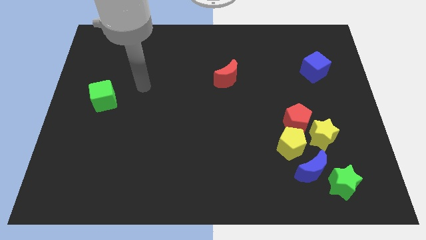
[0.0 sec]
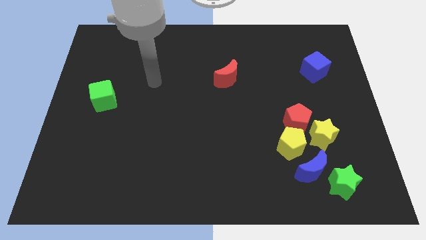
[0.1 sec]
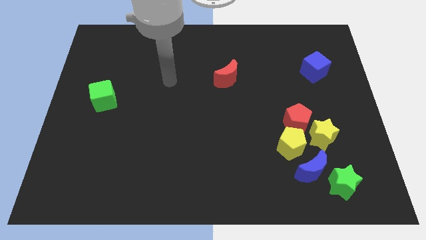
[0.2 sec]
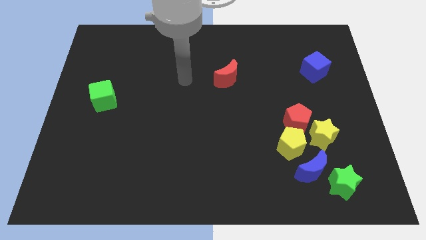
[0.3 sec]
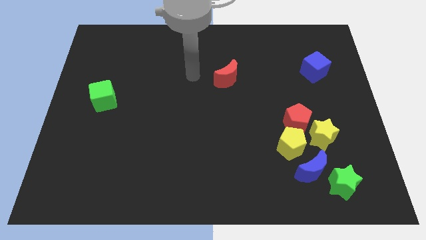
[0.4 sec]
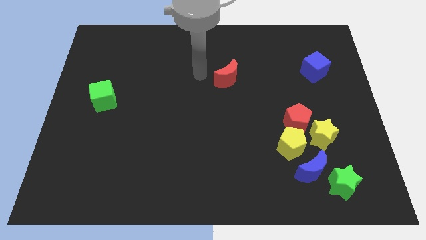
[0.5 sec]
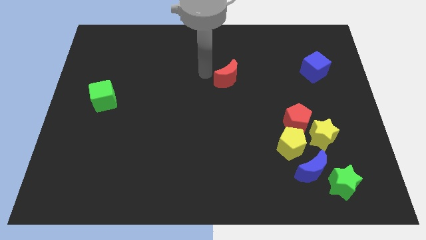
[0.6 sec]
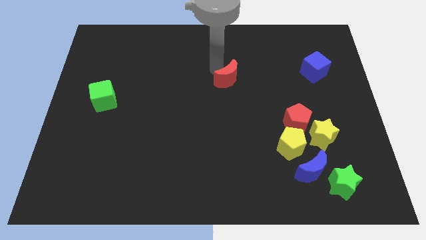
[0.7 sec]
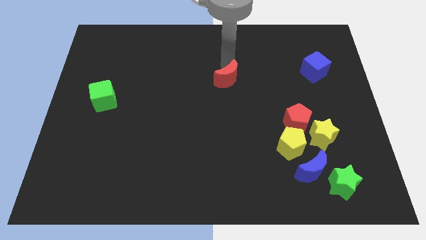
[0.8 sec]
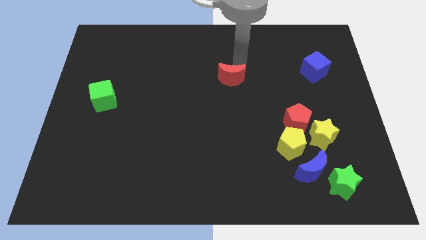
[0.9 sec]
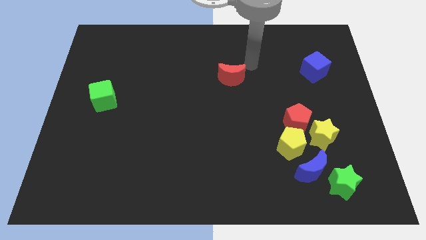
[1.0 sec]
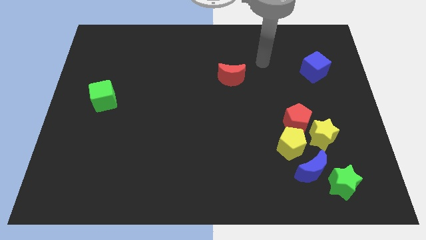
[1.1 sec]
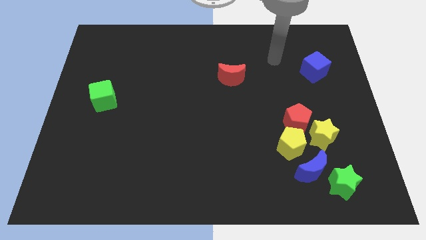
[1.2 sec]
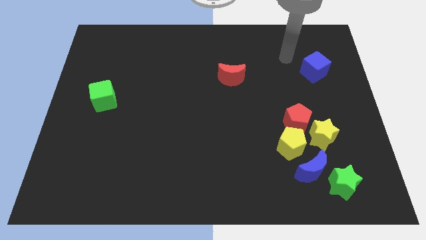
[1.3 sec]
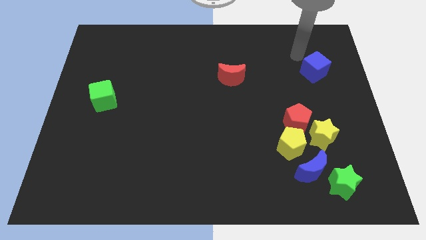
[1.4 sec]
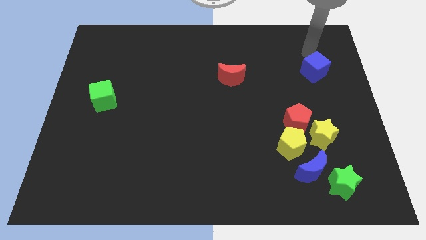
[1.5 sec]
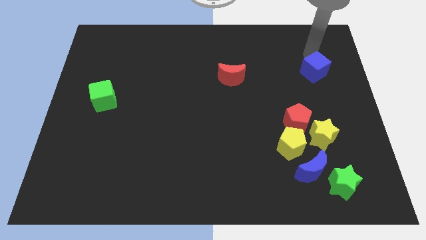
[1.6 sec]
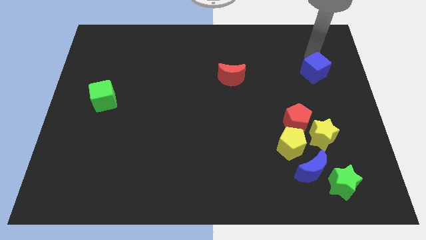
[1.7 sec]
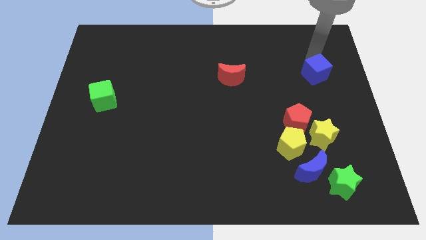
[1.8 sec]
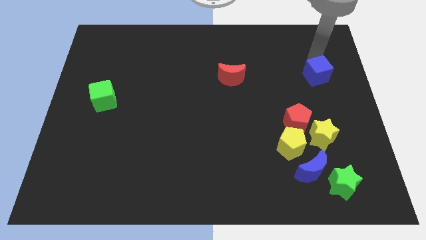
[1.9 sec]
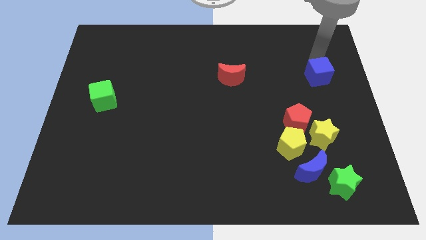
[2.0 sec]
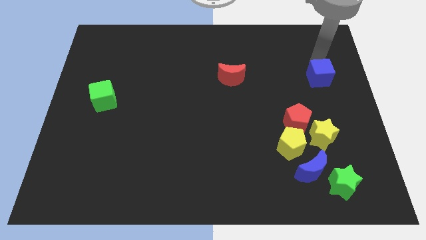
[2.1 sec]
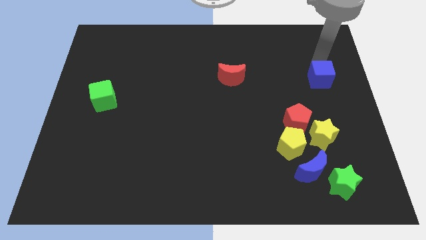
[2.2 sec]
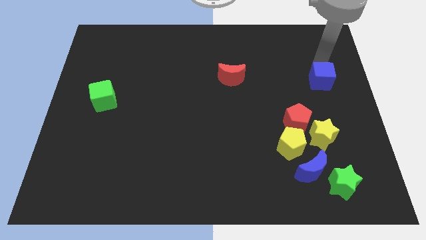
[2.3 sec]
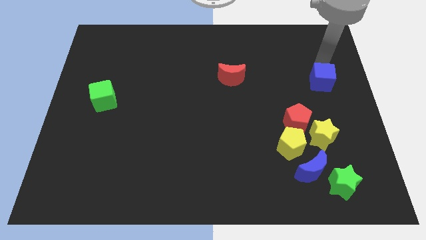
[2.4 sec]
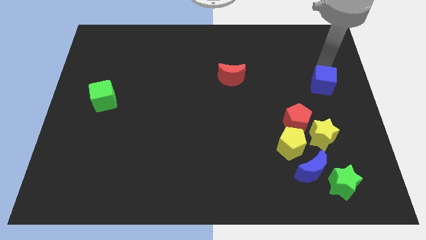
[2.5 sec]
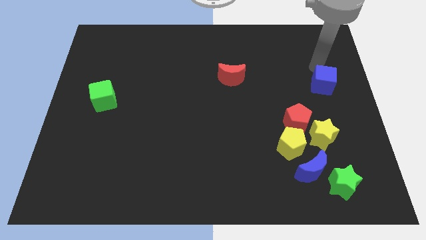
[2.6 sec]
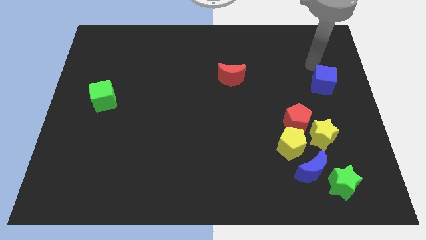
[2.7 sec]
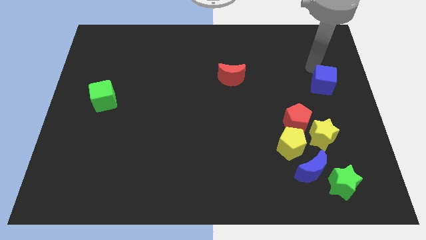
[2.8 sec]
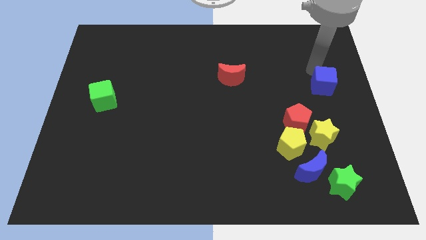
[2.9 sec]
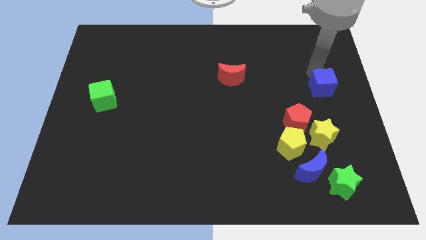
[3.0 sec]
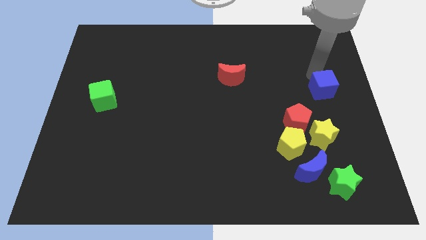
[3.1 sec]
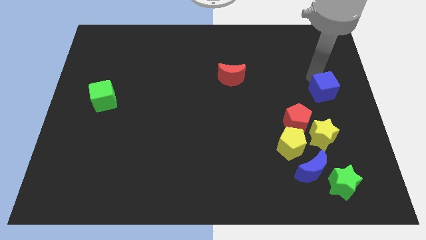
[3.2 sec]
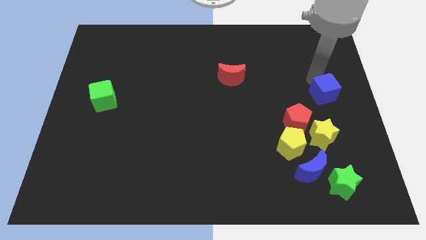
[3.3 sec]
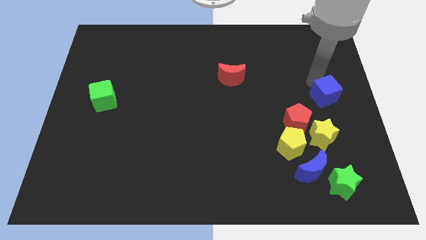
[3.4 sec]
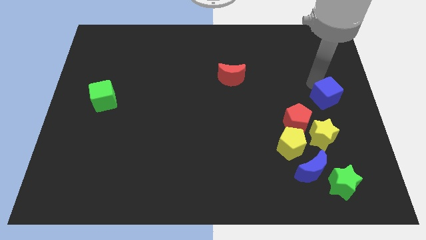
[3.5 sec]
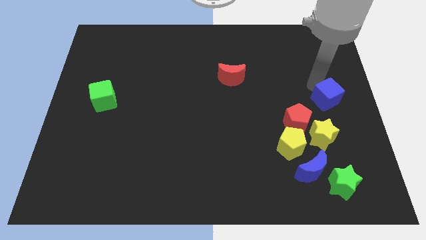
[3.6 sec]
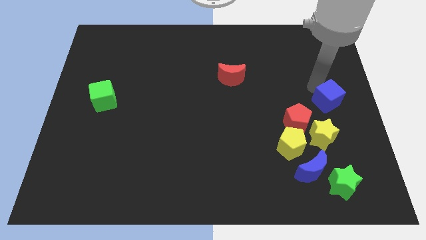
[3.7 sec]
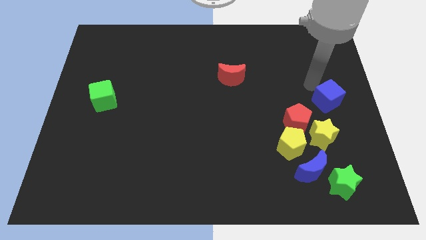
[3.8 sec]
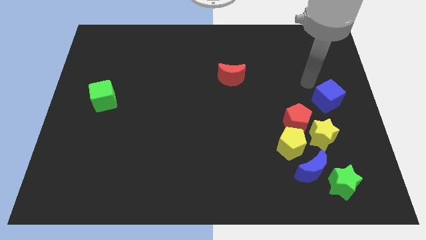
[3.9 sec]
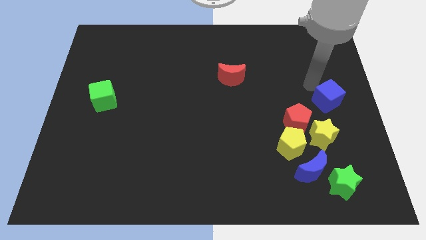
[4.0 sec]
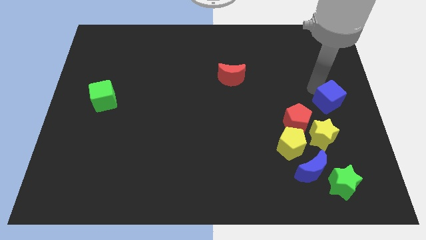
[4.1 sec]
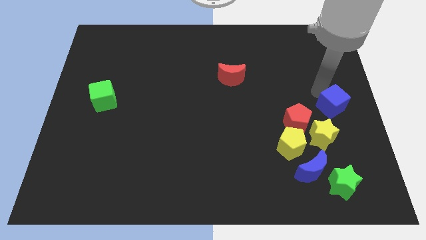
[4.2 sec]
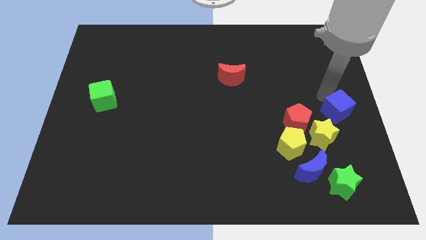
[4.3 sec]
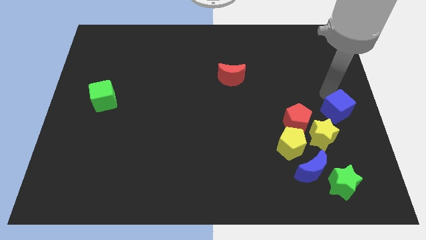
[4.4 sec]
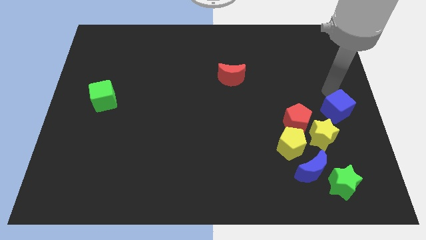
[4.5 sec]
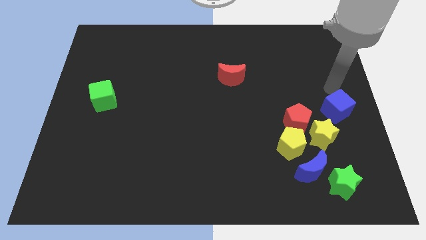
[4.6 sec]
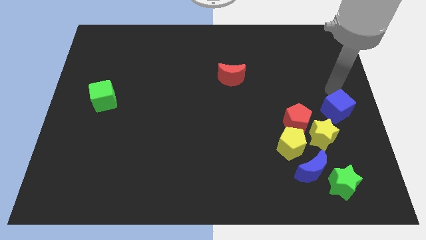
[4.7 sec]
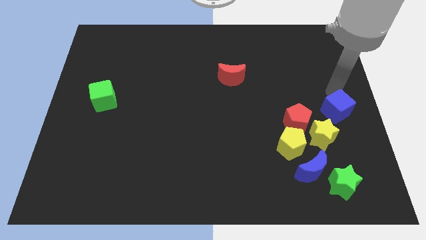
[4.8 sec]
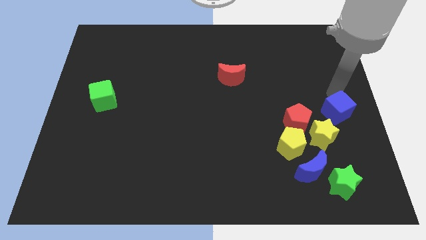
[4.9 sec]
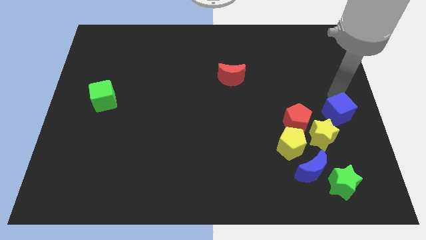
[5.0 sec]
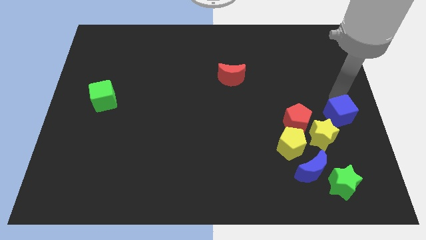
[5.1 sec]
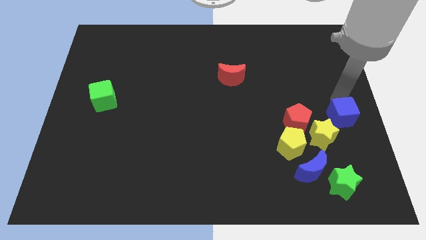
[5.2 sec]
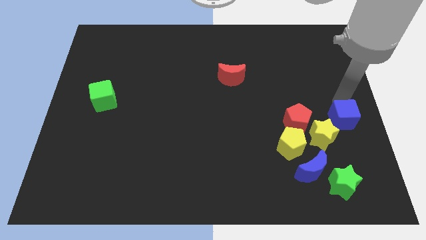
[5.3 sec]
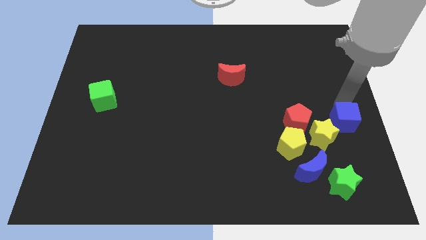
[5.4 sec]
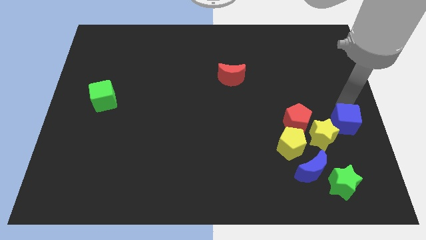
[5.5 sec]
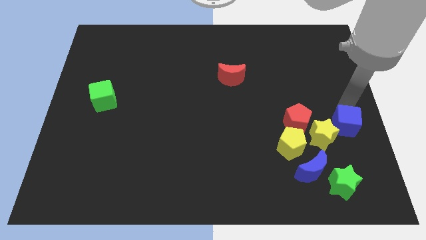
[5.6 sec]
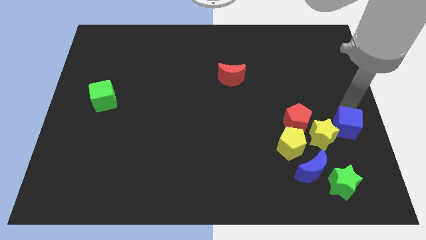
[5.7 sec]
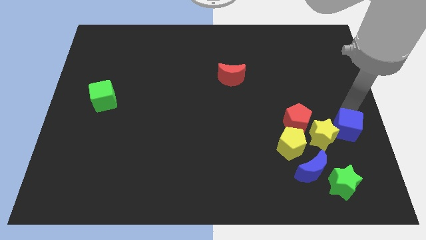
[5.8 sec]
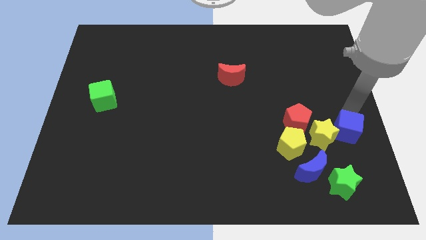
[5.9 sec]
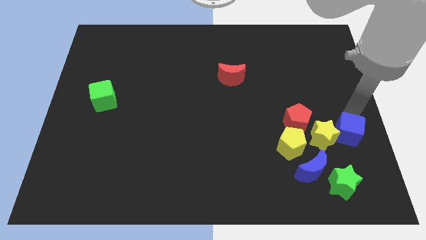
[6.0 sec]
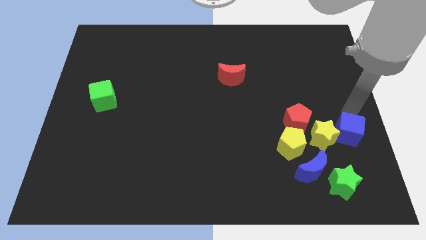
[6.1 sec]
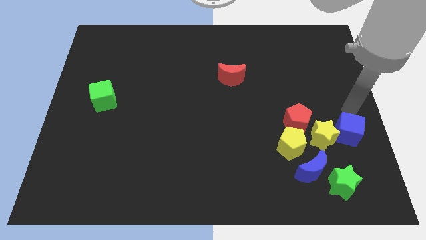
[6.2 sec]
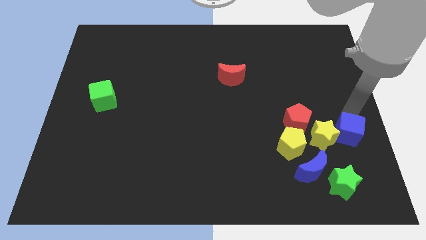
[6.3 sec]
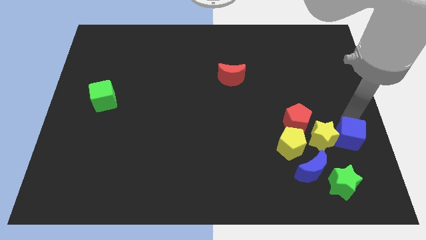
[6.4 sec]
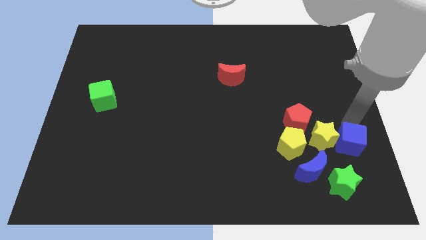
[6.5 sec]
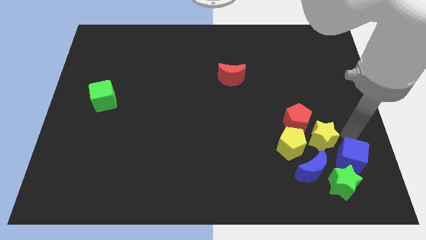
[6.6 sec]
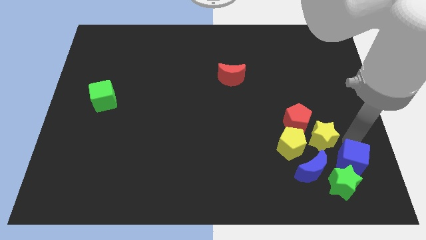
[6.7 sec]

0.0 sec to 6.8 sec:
push the blue cube close to the green star

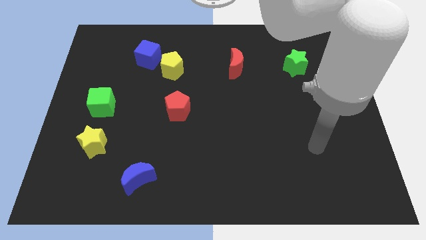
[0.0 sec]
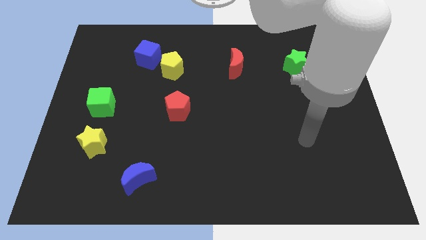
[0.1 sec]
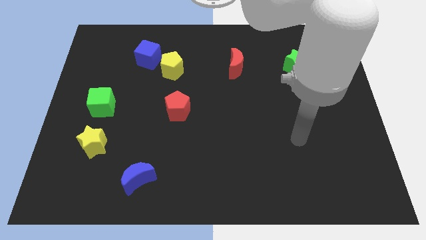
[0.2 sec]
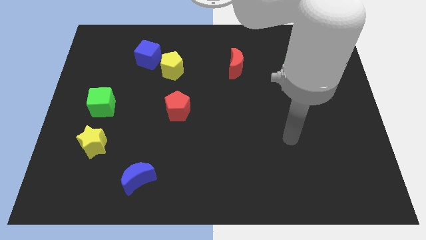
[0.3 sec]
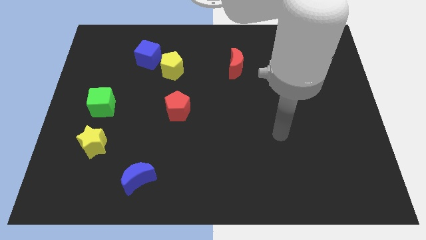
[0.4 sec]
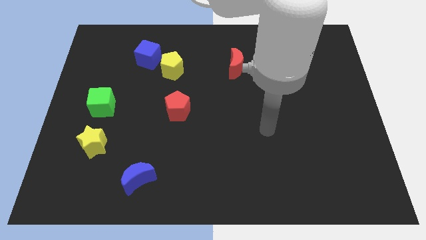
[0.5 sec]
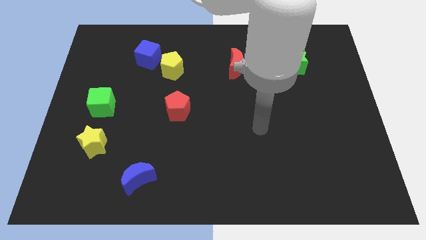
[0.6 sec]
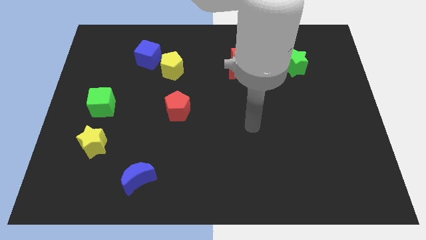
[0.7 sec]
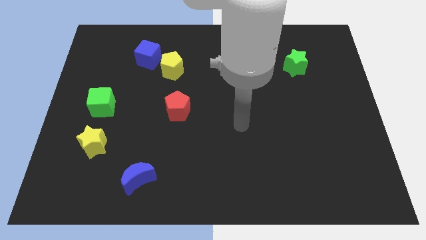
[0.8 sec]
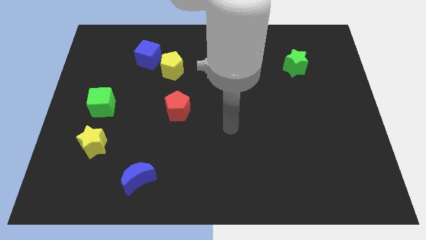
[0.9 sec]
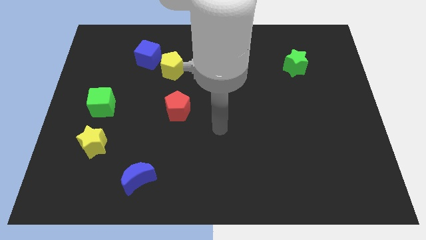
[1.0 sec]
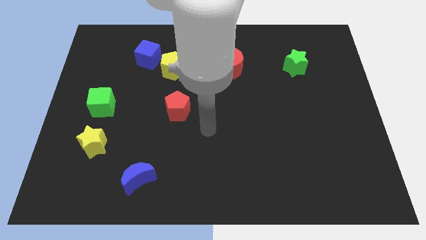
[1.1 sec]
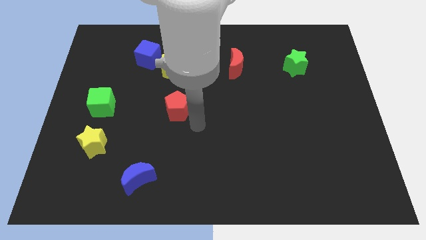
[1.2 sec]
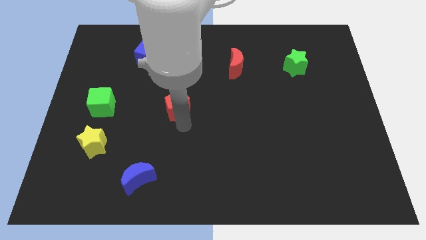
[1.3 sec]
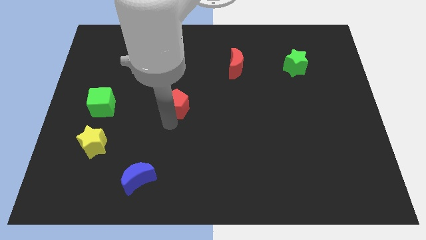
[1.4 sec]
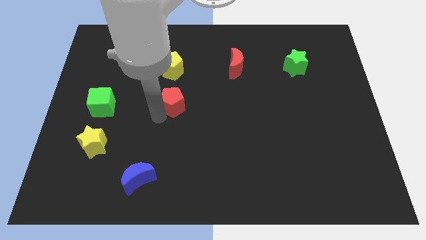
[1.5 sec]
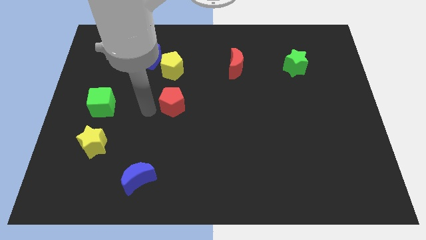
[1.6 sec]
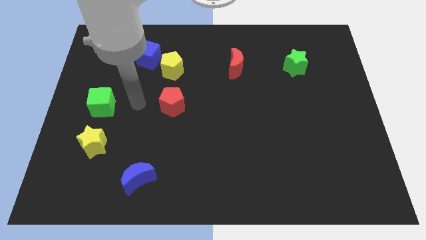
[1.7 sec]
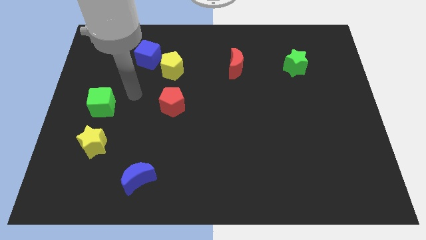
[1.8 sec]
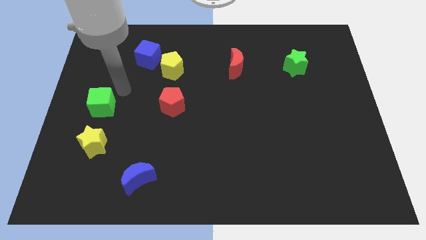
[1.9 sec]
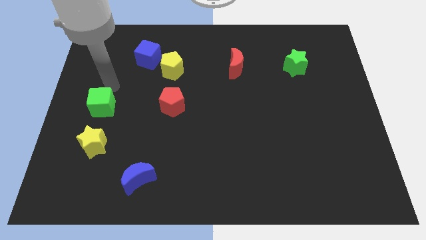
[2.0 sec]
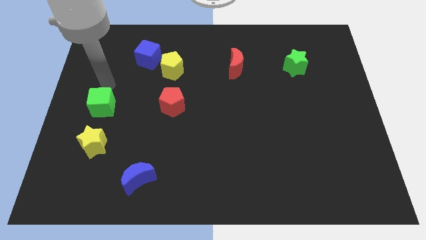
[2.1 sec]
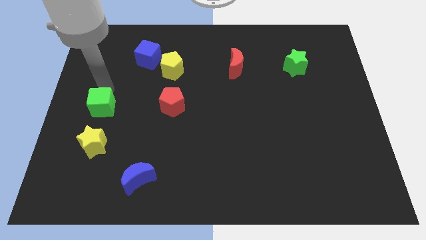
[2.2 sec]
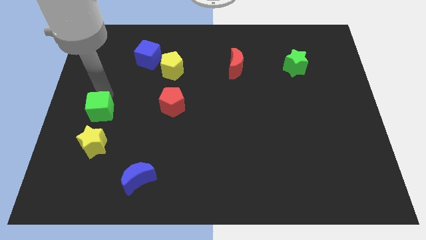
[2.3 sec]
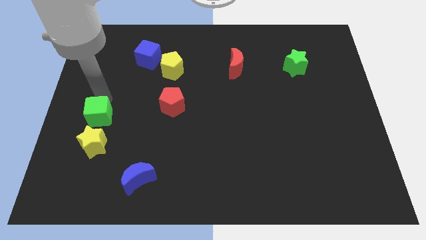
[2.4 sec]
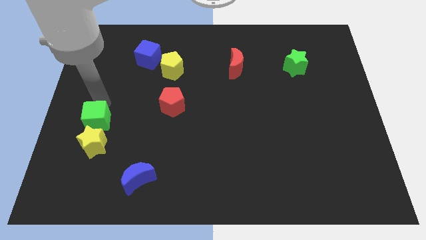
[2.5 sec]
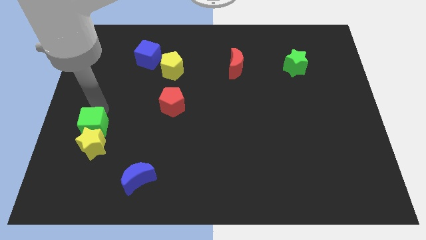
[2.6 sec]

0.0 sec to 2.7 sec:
put the green cube towards the yellow star
